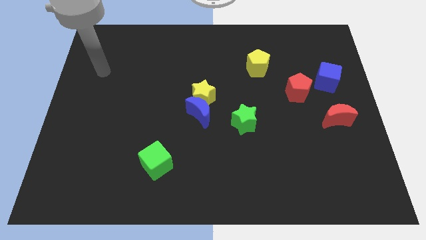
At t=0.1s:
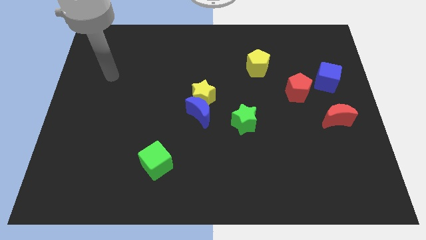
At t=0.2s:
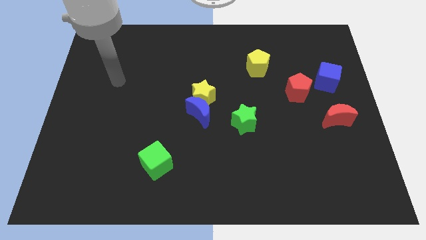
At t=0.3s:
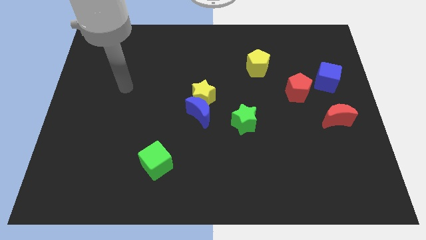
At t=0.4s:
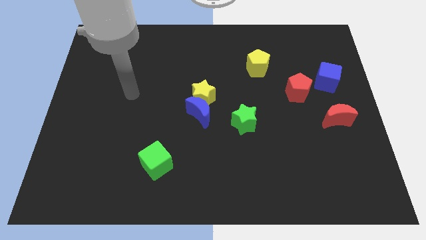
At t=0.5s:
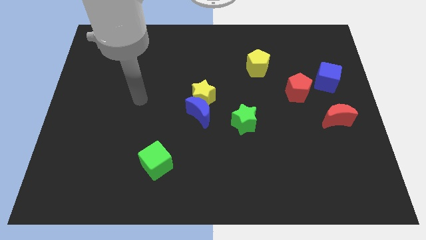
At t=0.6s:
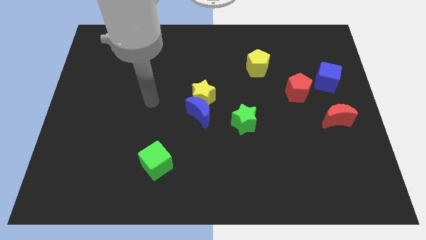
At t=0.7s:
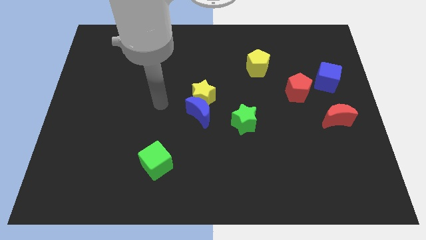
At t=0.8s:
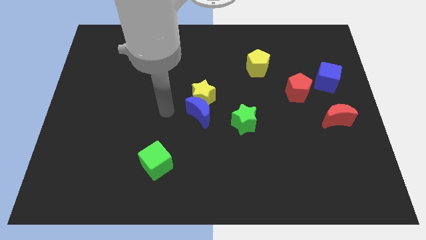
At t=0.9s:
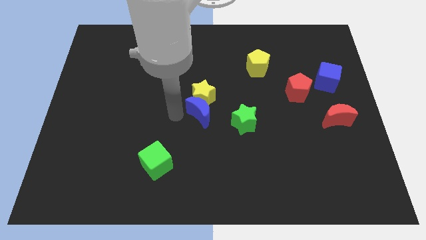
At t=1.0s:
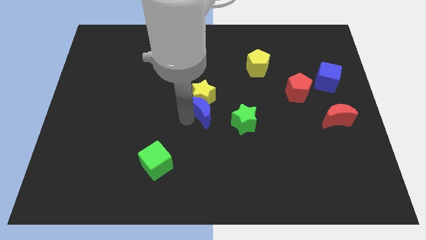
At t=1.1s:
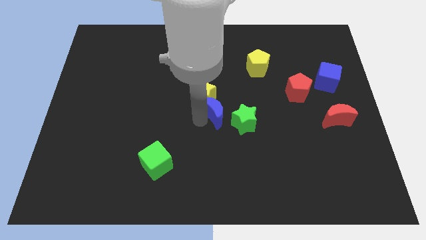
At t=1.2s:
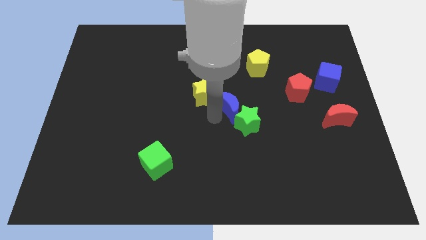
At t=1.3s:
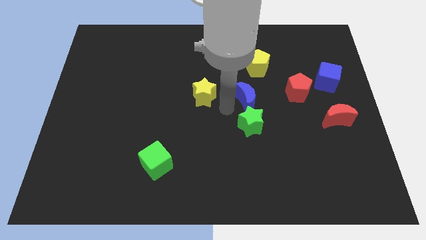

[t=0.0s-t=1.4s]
move the yellow star away from the blue moon

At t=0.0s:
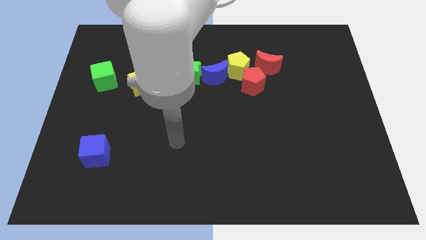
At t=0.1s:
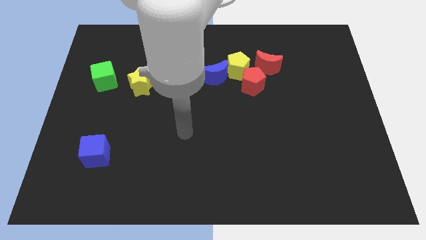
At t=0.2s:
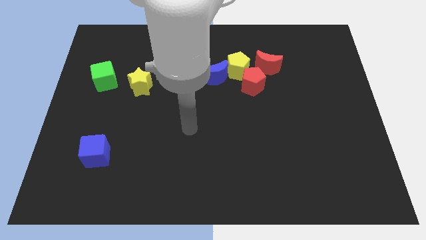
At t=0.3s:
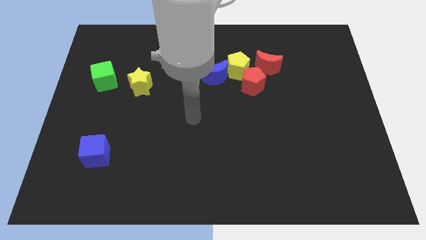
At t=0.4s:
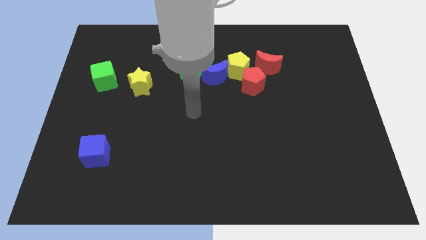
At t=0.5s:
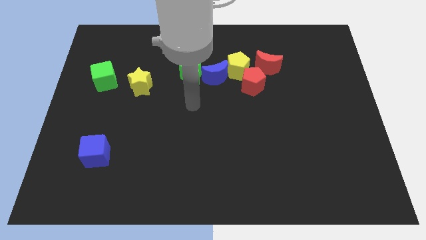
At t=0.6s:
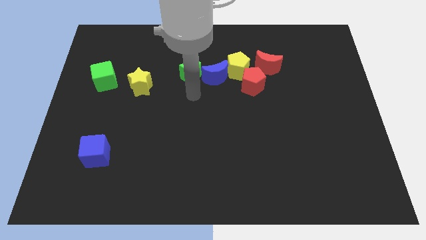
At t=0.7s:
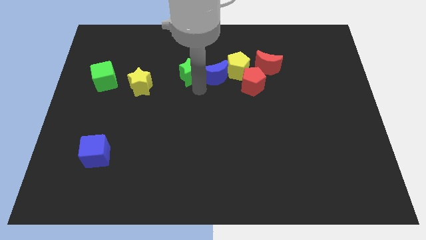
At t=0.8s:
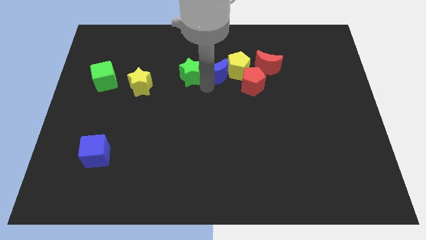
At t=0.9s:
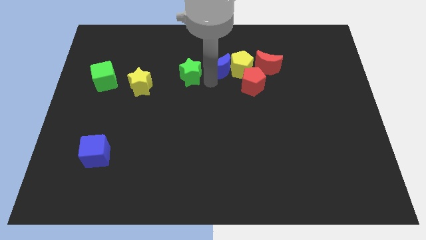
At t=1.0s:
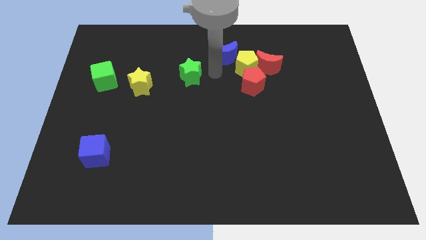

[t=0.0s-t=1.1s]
separate the green star from the blue moon

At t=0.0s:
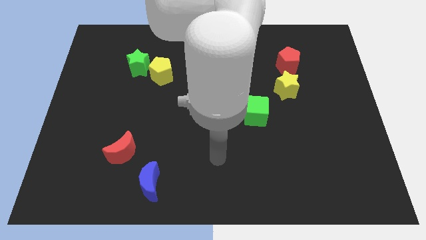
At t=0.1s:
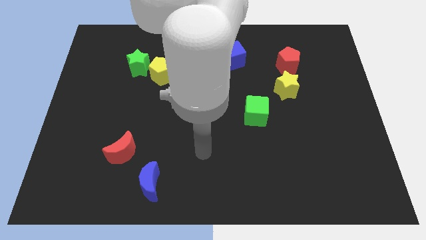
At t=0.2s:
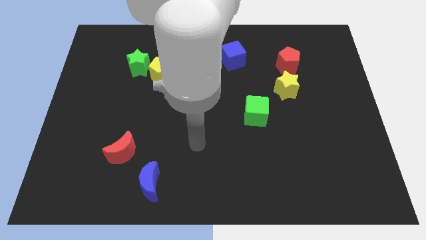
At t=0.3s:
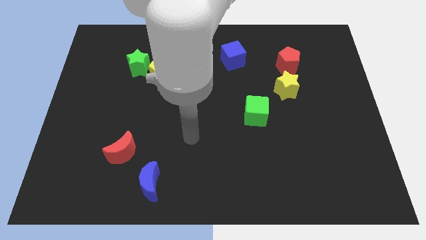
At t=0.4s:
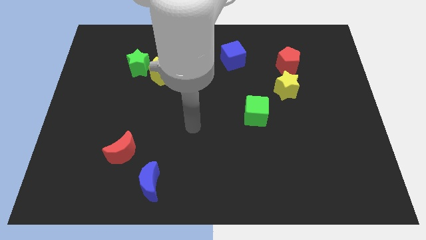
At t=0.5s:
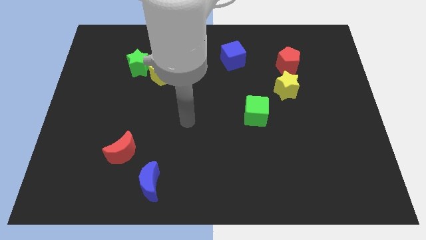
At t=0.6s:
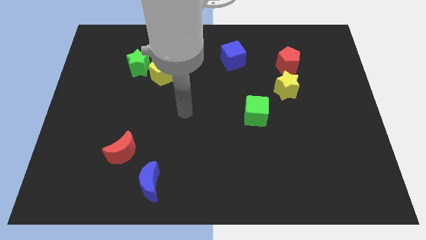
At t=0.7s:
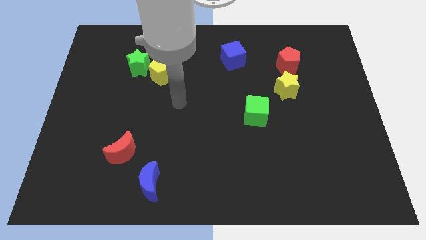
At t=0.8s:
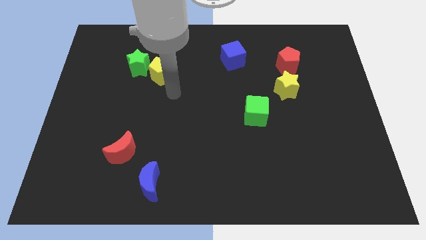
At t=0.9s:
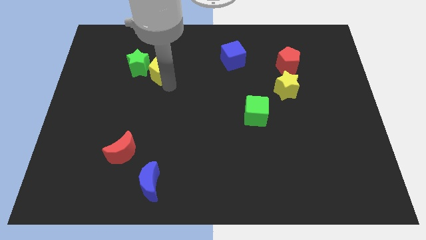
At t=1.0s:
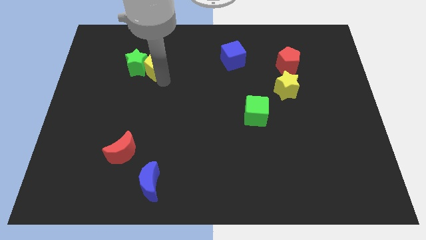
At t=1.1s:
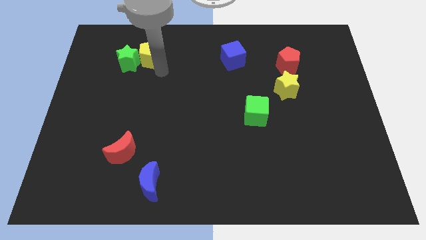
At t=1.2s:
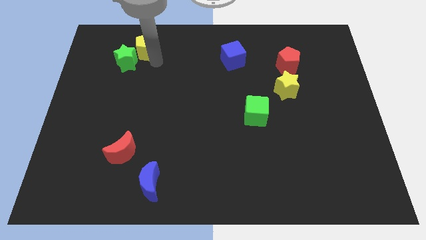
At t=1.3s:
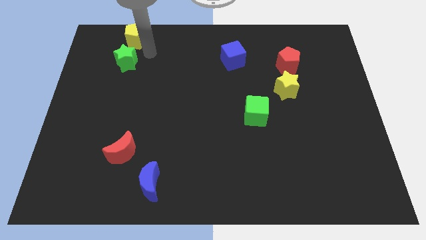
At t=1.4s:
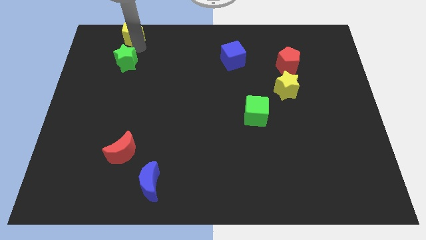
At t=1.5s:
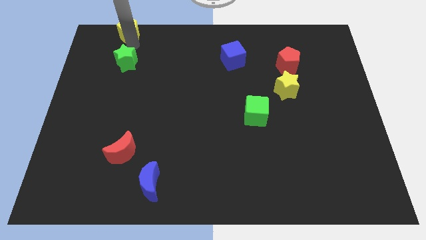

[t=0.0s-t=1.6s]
separate the green star from the yellow pentagon

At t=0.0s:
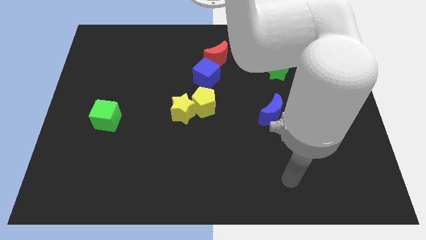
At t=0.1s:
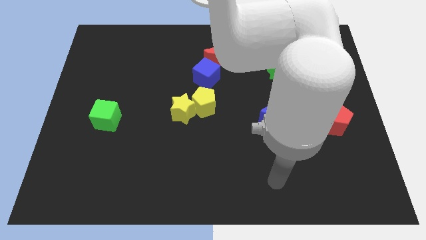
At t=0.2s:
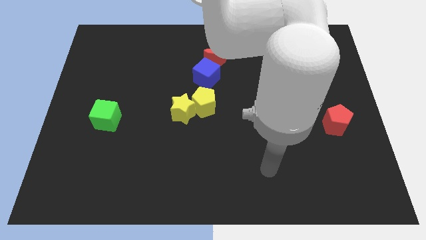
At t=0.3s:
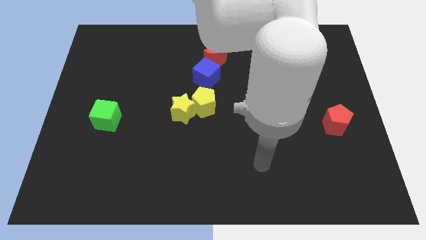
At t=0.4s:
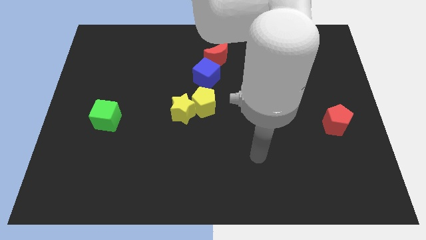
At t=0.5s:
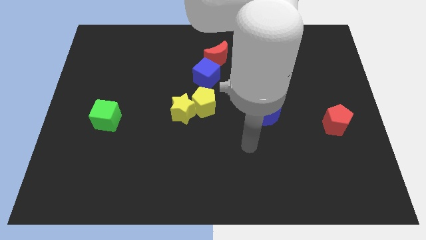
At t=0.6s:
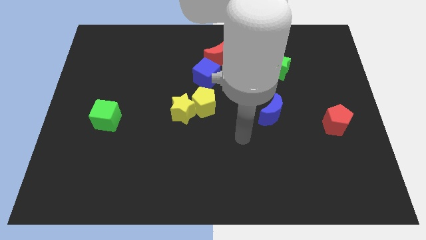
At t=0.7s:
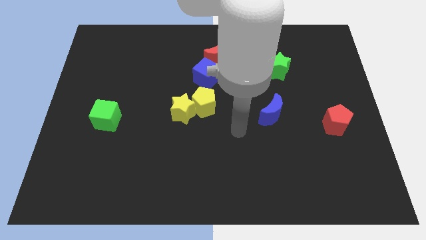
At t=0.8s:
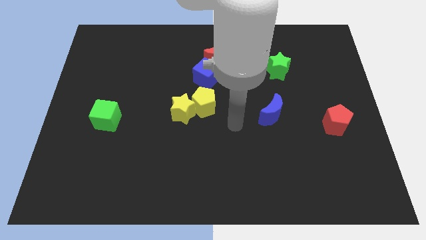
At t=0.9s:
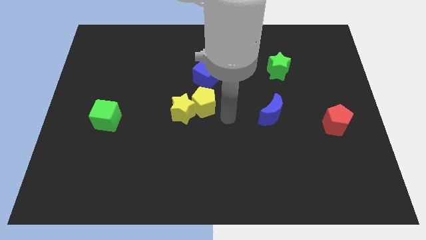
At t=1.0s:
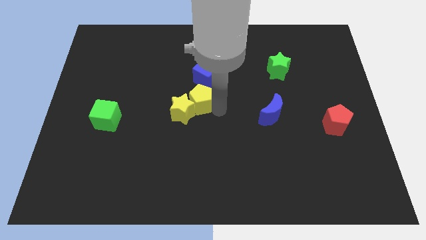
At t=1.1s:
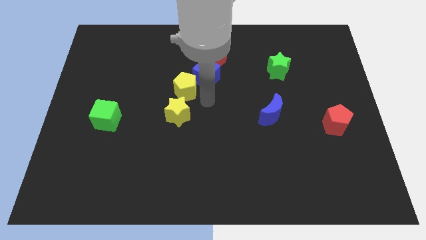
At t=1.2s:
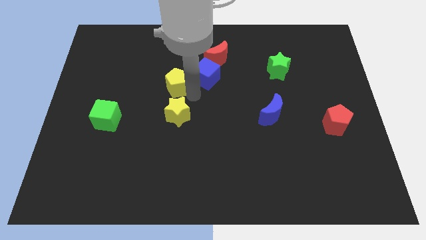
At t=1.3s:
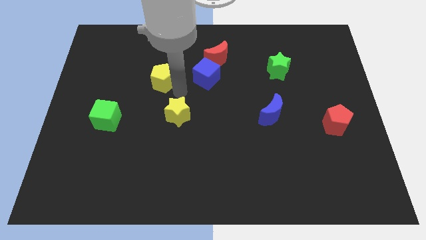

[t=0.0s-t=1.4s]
separate the yellow star from the yellow pentagon

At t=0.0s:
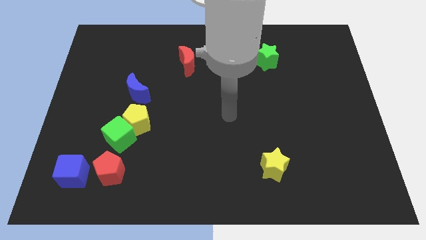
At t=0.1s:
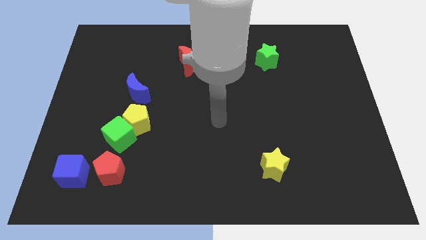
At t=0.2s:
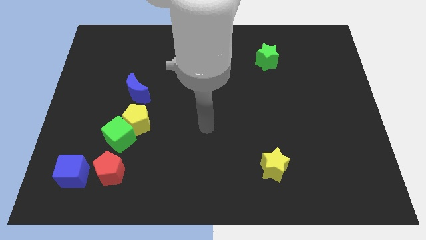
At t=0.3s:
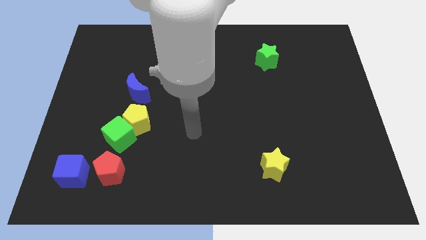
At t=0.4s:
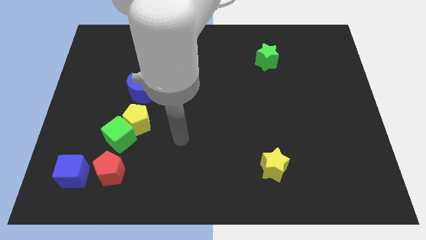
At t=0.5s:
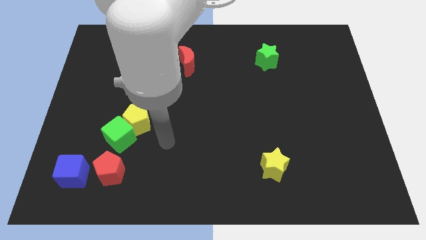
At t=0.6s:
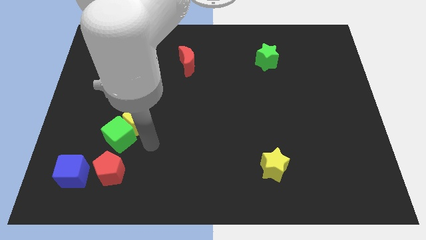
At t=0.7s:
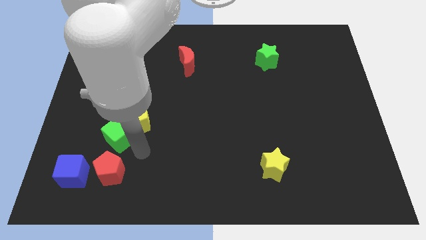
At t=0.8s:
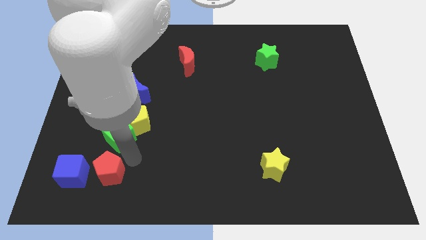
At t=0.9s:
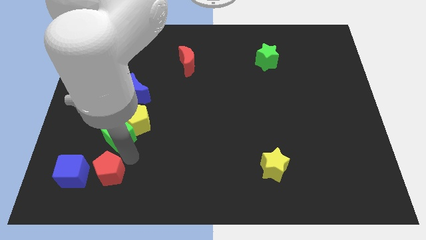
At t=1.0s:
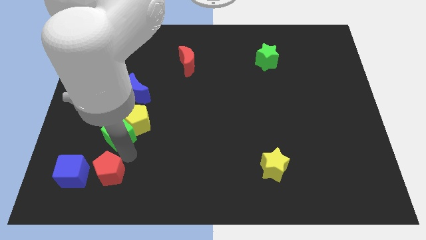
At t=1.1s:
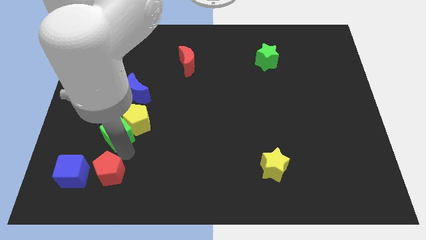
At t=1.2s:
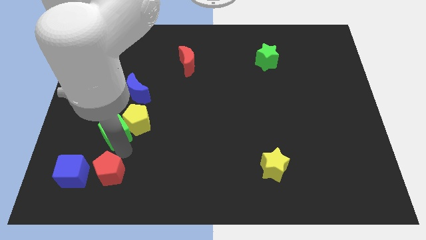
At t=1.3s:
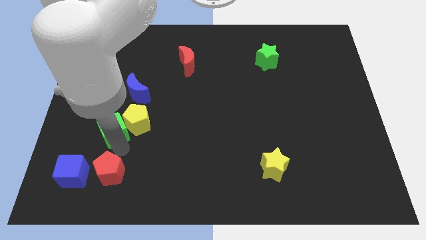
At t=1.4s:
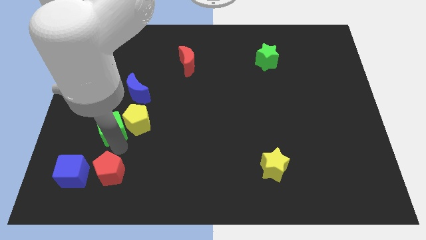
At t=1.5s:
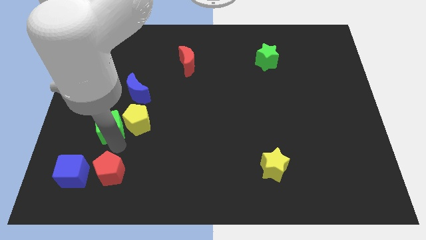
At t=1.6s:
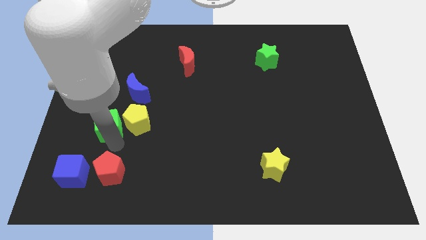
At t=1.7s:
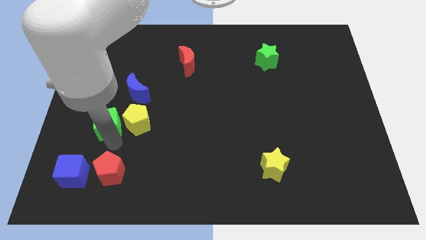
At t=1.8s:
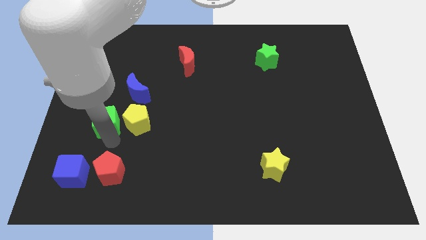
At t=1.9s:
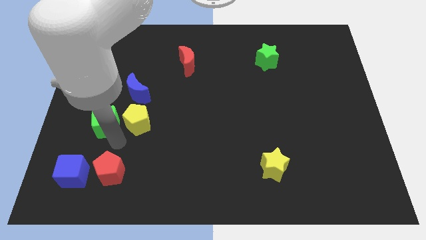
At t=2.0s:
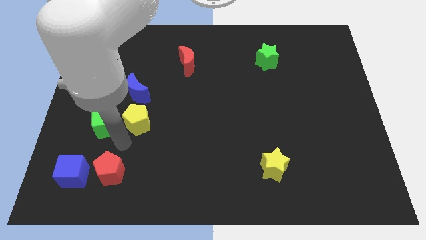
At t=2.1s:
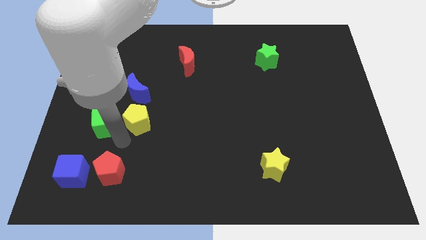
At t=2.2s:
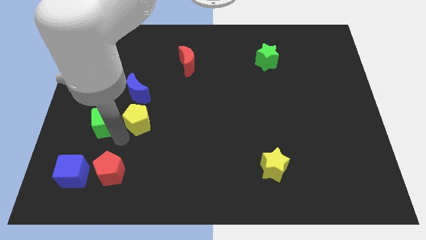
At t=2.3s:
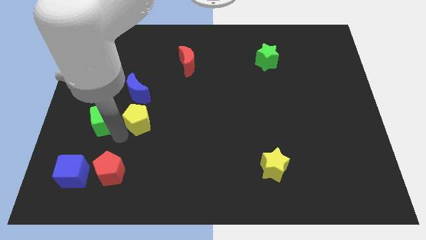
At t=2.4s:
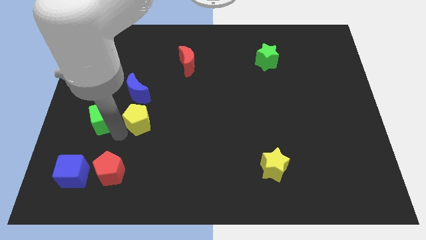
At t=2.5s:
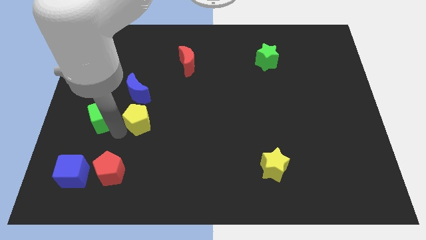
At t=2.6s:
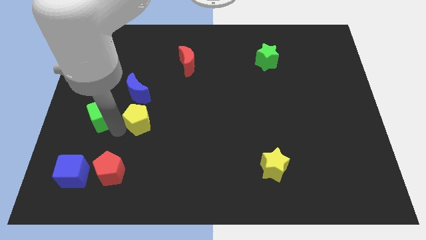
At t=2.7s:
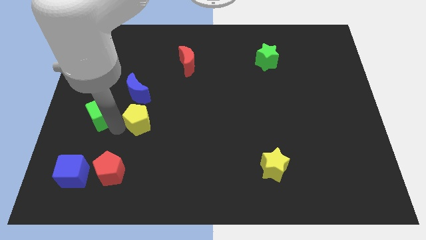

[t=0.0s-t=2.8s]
separate the green cube from the yellow pentagon and red pentagon

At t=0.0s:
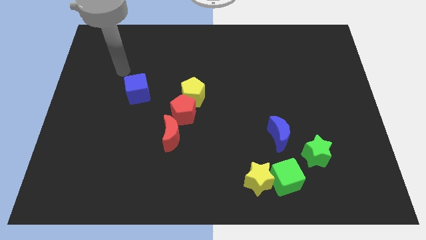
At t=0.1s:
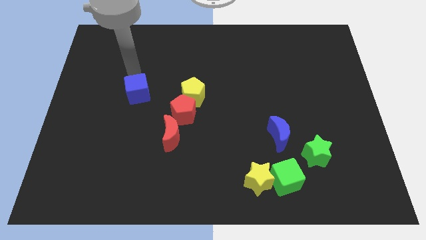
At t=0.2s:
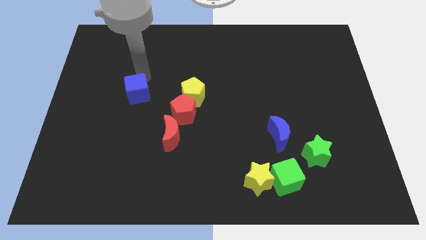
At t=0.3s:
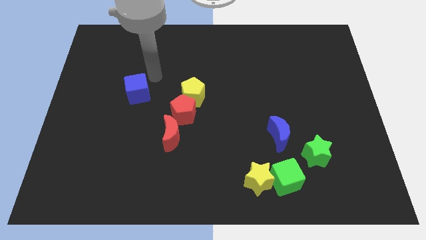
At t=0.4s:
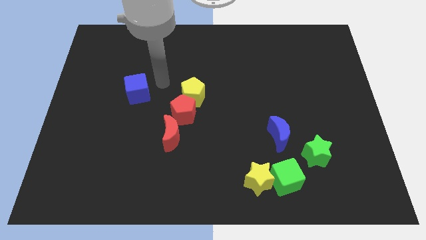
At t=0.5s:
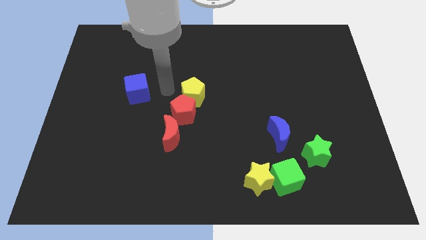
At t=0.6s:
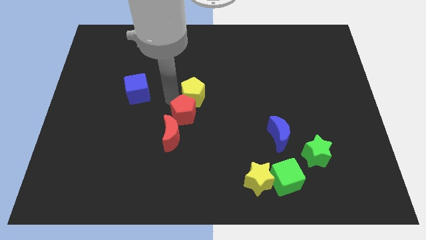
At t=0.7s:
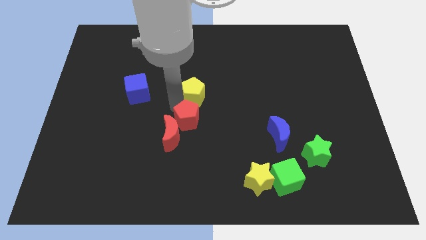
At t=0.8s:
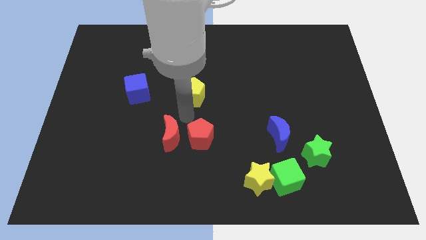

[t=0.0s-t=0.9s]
move the yellow pentagon away from the red pentagon

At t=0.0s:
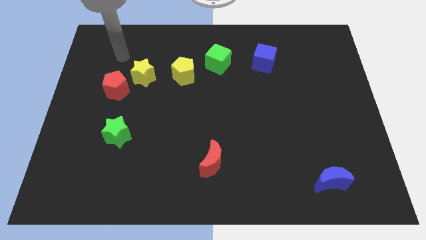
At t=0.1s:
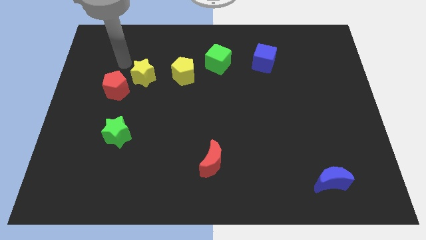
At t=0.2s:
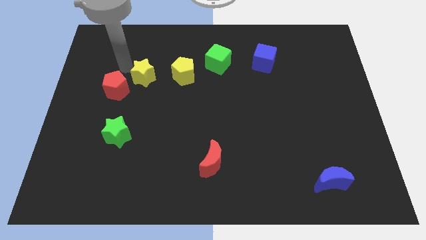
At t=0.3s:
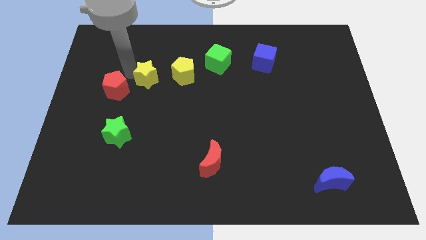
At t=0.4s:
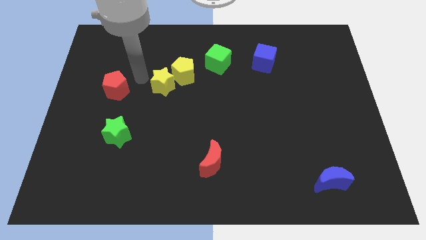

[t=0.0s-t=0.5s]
separate the red pentagon from the yellow star
